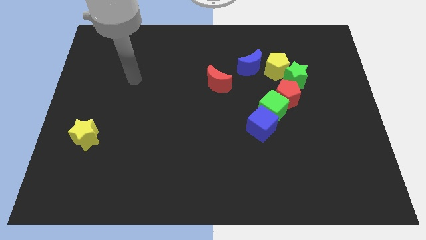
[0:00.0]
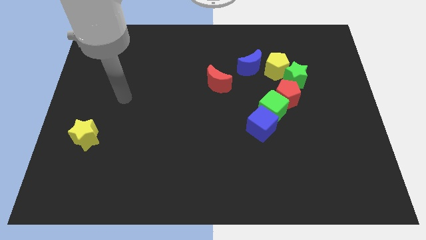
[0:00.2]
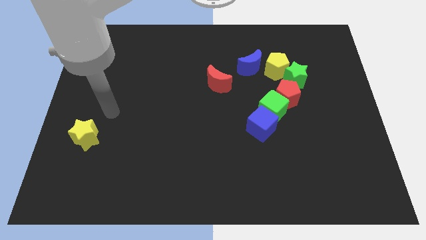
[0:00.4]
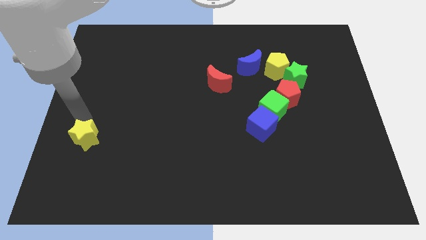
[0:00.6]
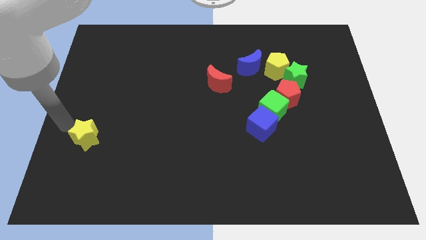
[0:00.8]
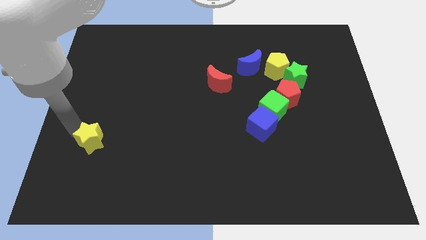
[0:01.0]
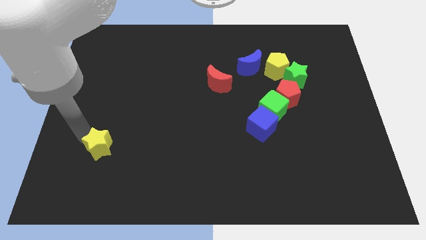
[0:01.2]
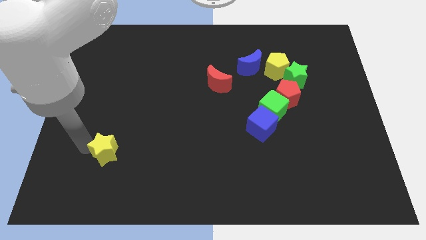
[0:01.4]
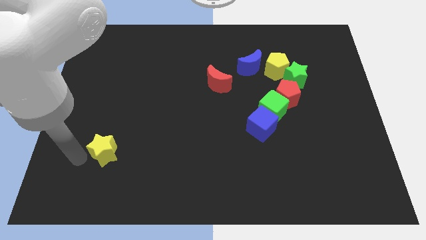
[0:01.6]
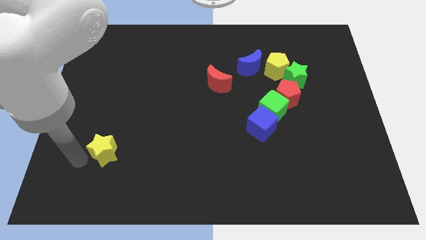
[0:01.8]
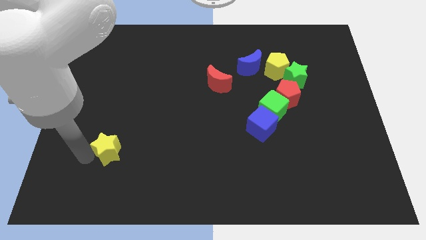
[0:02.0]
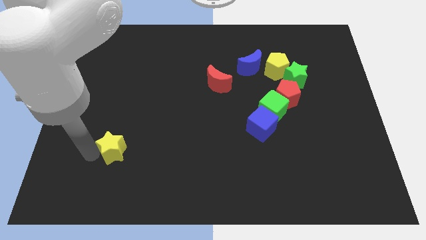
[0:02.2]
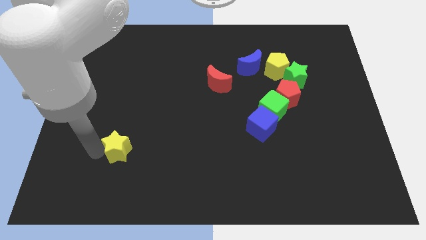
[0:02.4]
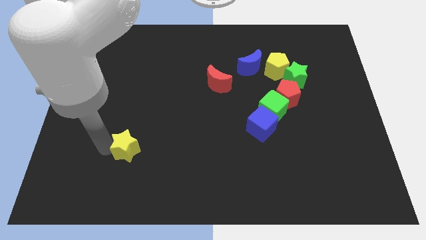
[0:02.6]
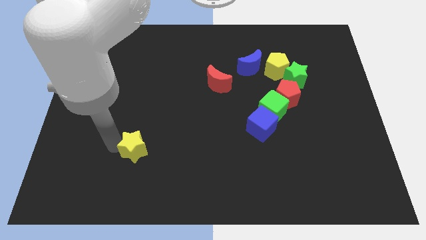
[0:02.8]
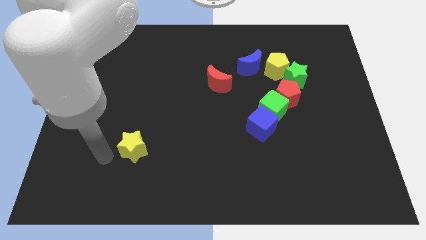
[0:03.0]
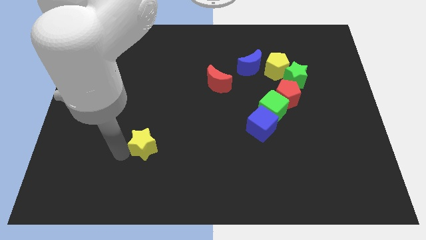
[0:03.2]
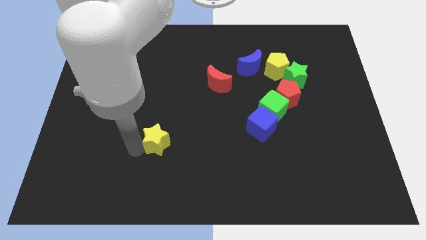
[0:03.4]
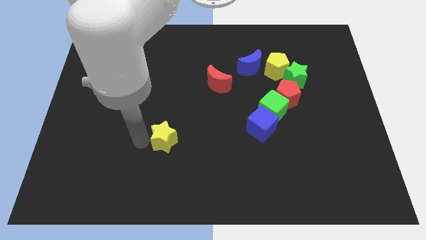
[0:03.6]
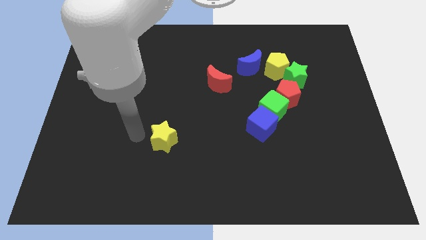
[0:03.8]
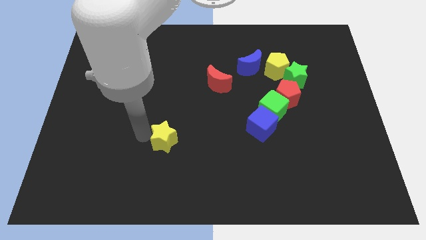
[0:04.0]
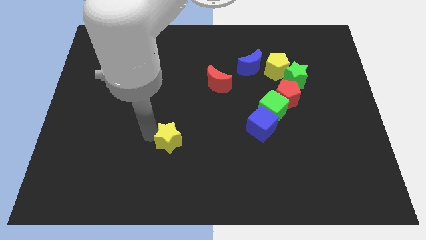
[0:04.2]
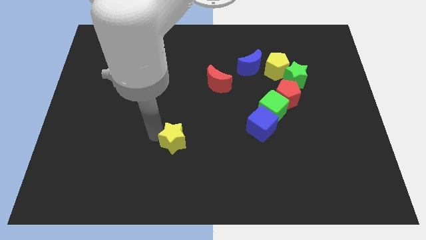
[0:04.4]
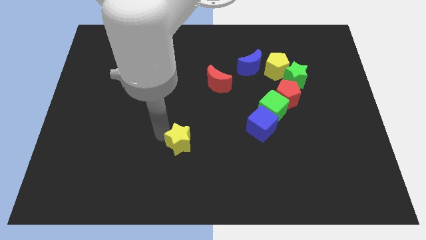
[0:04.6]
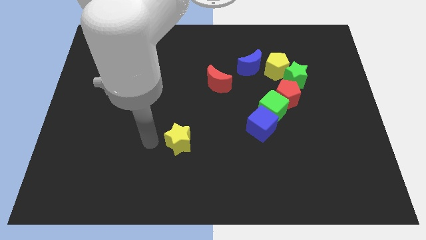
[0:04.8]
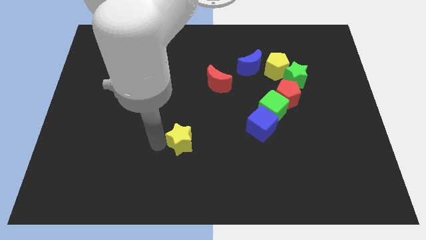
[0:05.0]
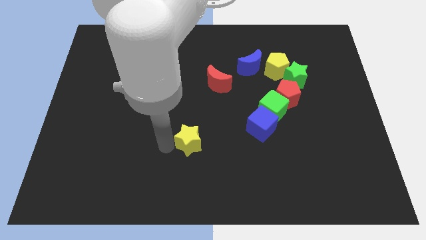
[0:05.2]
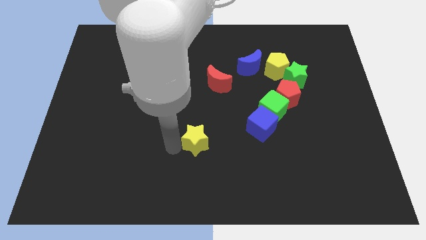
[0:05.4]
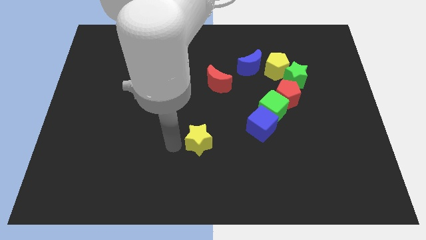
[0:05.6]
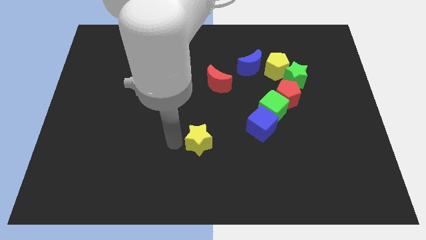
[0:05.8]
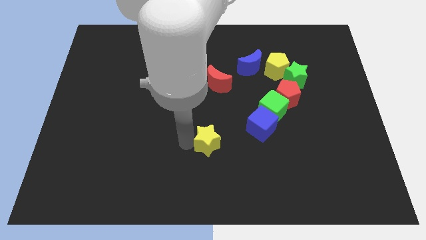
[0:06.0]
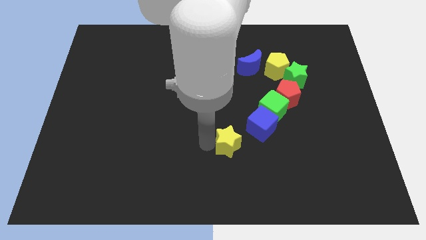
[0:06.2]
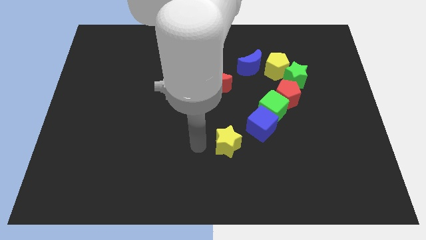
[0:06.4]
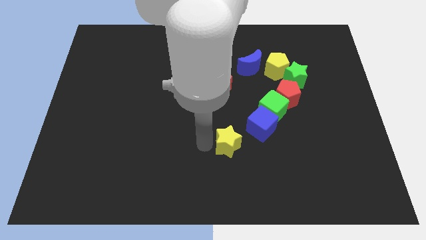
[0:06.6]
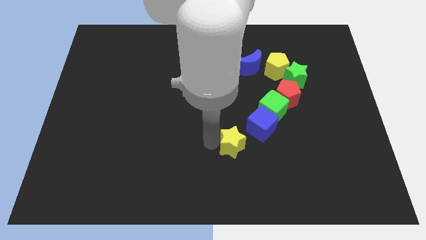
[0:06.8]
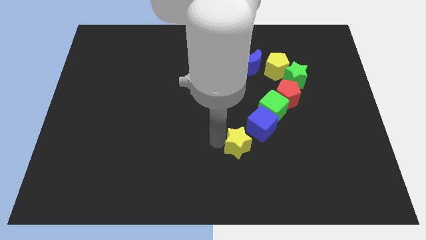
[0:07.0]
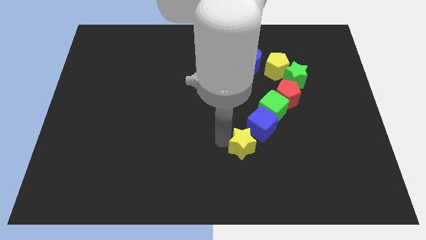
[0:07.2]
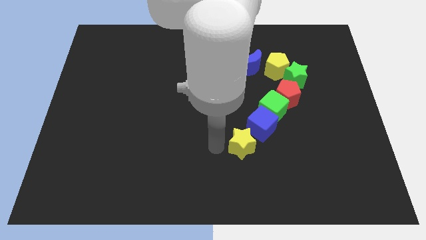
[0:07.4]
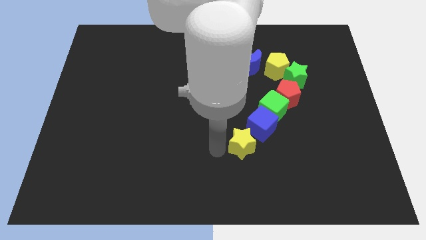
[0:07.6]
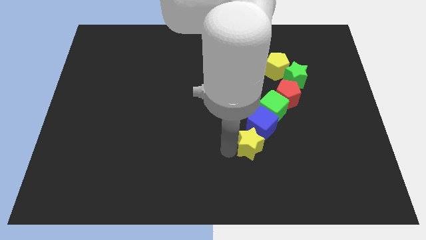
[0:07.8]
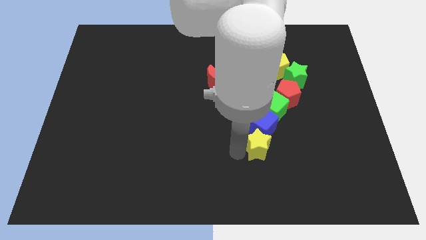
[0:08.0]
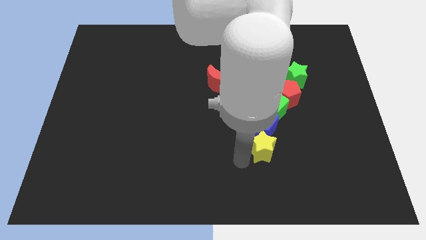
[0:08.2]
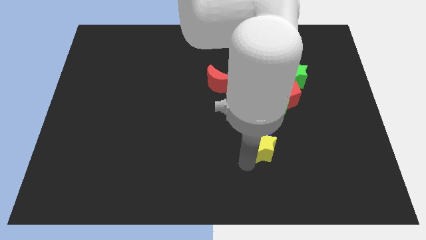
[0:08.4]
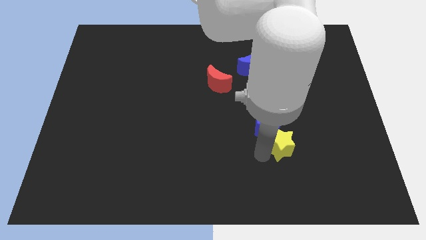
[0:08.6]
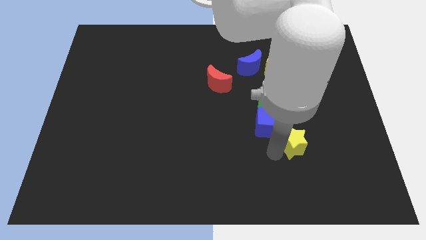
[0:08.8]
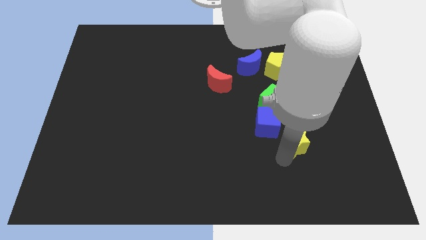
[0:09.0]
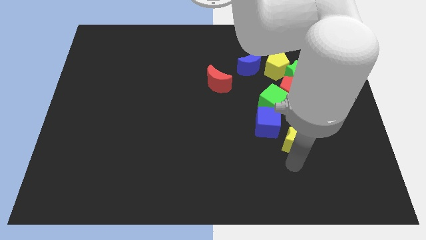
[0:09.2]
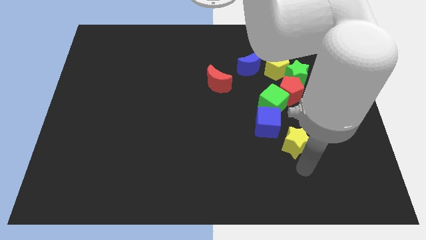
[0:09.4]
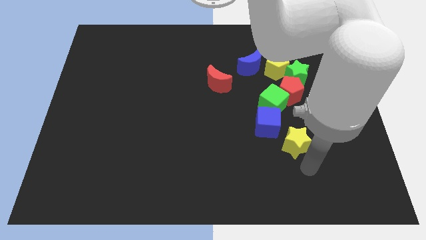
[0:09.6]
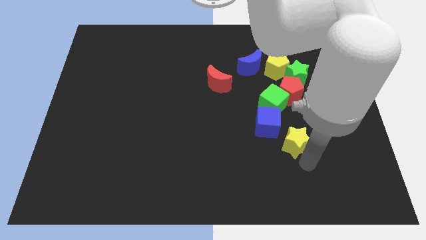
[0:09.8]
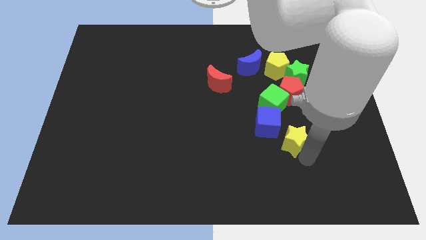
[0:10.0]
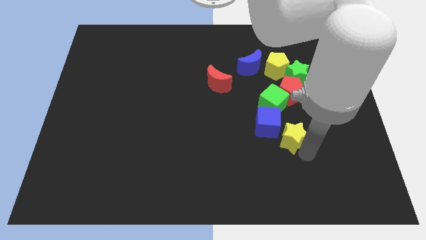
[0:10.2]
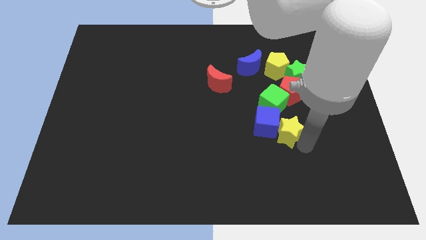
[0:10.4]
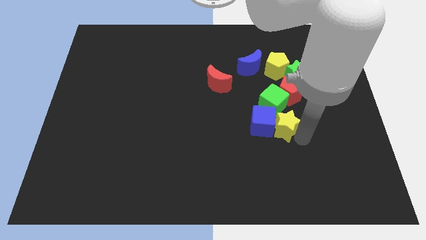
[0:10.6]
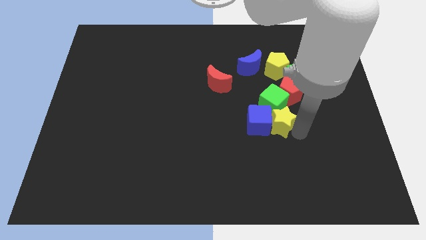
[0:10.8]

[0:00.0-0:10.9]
move the yellow star next to the green cube

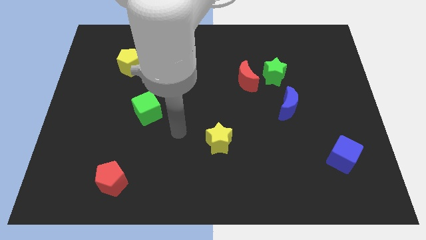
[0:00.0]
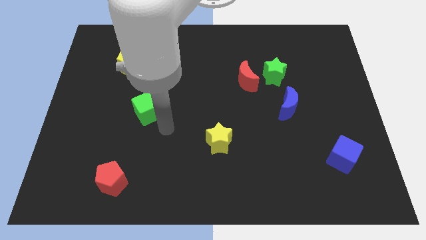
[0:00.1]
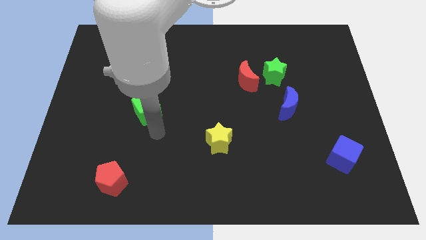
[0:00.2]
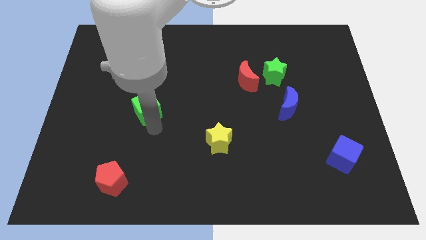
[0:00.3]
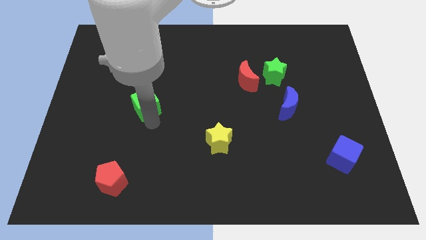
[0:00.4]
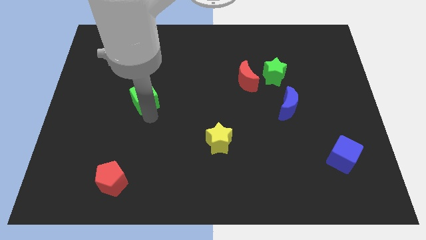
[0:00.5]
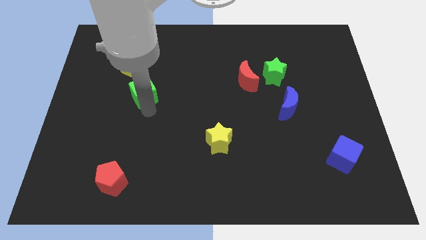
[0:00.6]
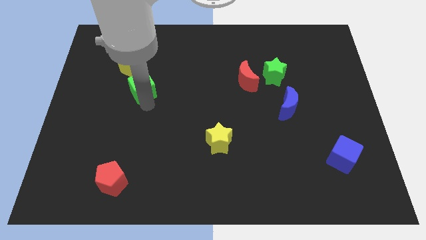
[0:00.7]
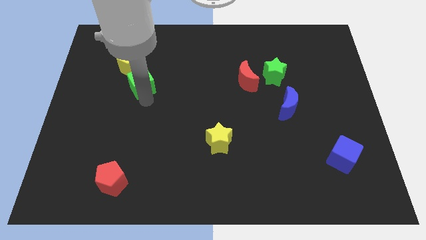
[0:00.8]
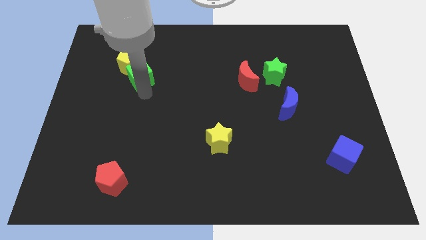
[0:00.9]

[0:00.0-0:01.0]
put the green cube close to the yellow pentagon
